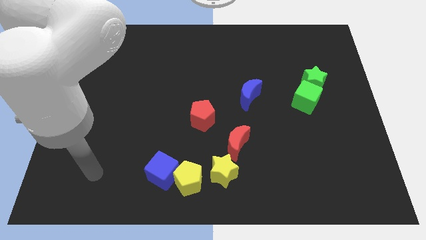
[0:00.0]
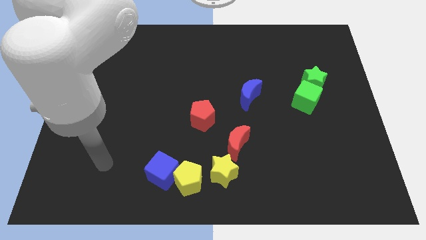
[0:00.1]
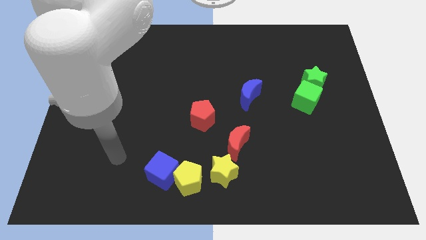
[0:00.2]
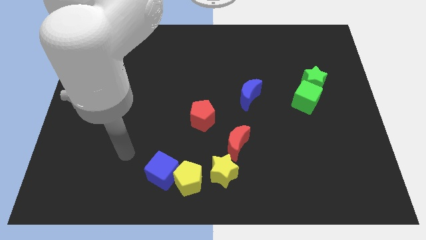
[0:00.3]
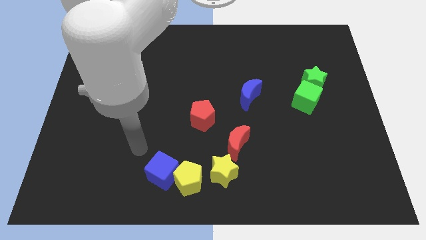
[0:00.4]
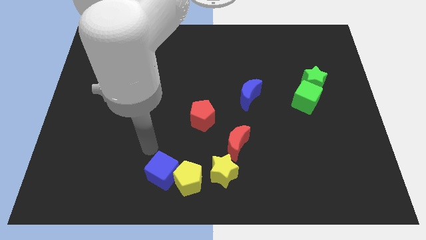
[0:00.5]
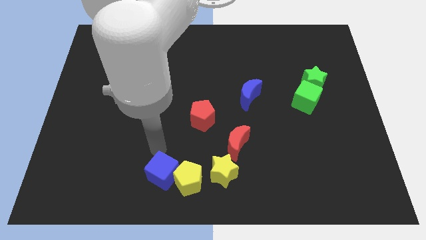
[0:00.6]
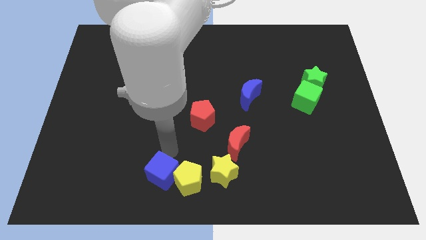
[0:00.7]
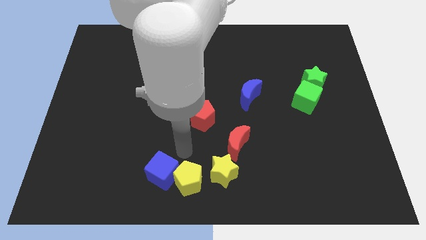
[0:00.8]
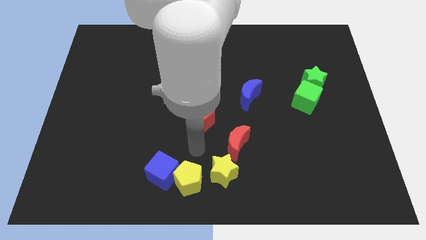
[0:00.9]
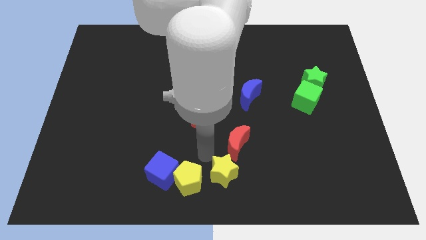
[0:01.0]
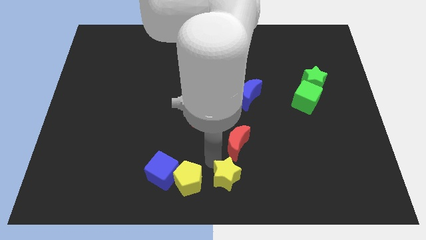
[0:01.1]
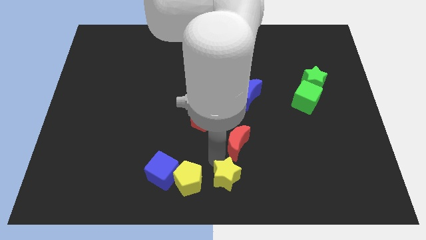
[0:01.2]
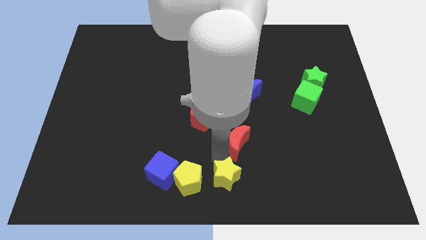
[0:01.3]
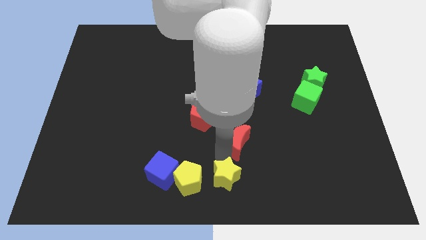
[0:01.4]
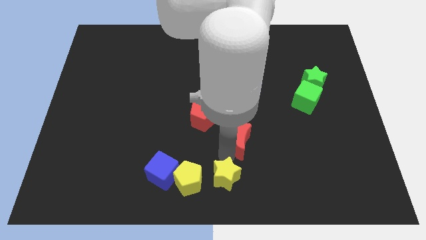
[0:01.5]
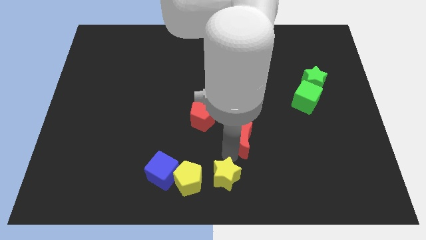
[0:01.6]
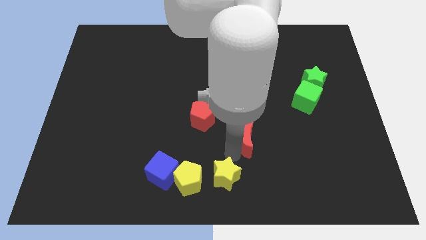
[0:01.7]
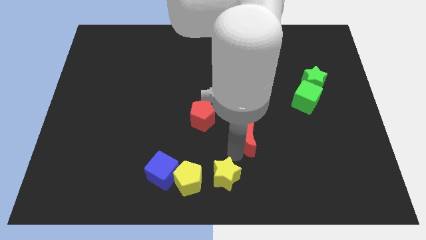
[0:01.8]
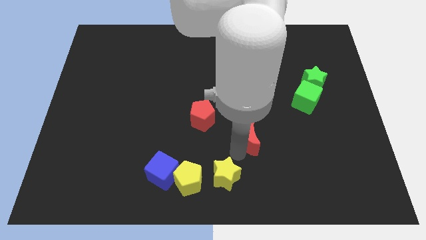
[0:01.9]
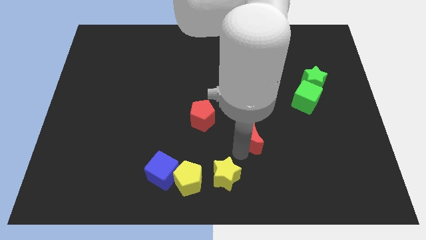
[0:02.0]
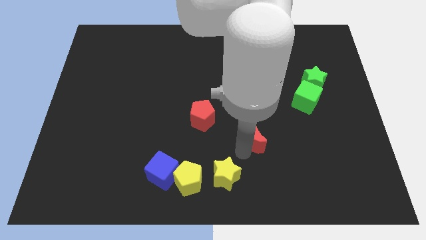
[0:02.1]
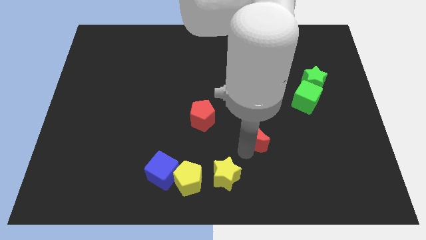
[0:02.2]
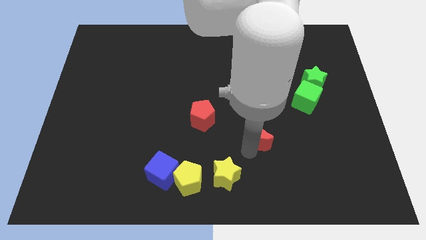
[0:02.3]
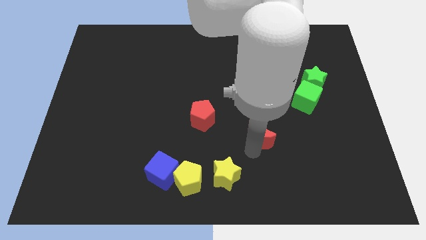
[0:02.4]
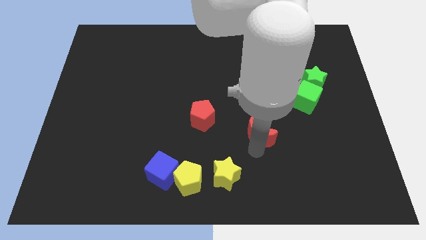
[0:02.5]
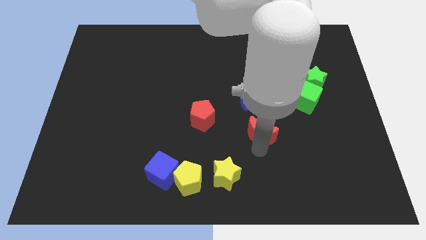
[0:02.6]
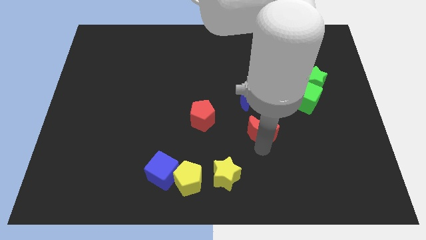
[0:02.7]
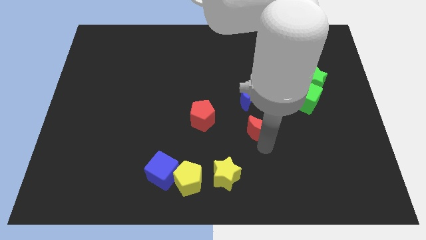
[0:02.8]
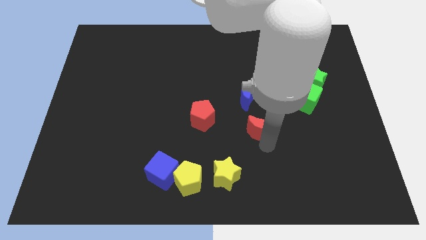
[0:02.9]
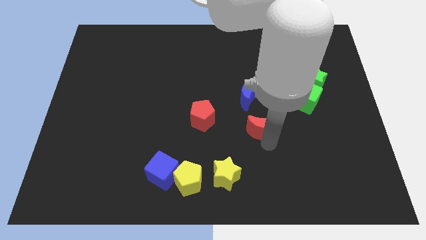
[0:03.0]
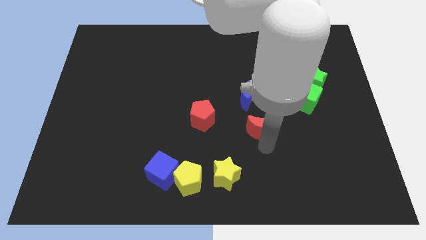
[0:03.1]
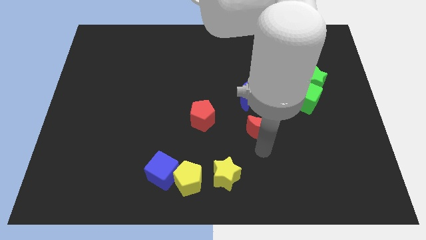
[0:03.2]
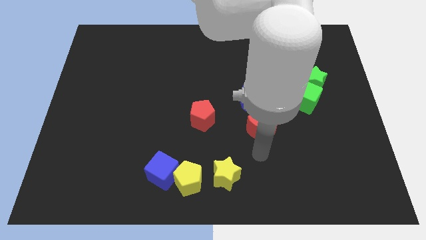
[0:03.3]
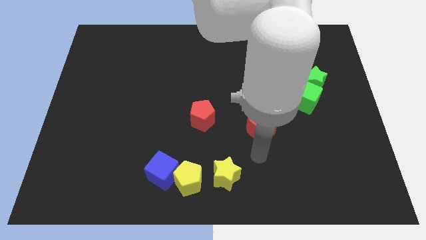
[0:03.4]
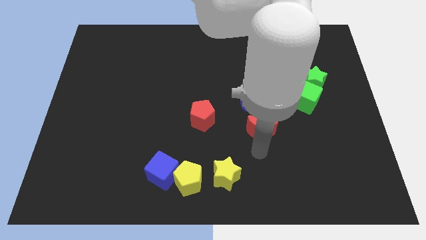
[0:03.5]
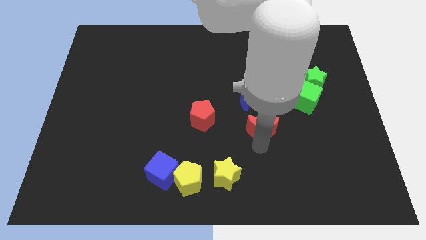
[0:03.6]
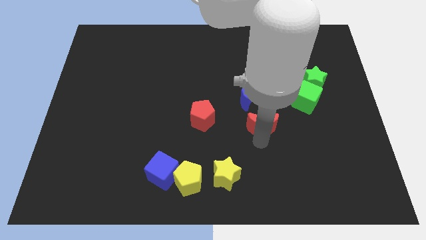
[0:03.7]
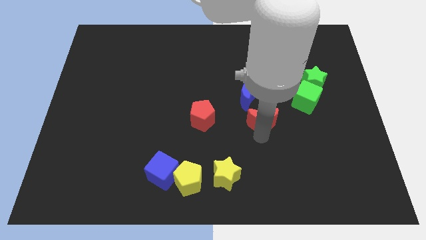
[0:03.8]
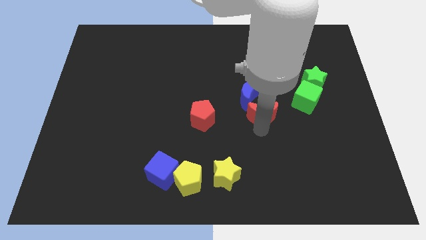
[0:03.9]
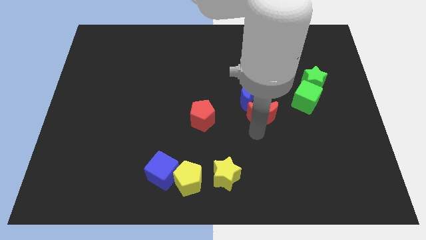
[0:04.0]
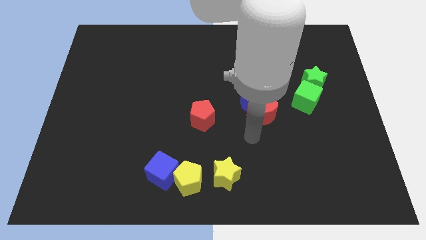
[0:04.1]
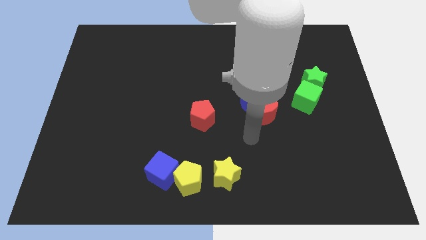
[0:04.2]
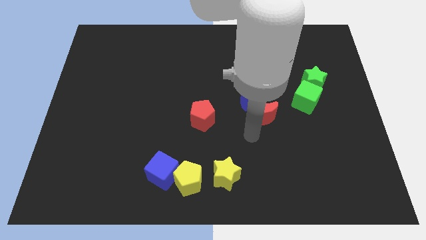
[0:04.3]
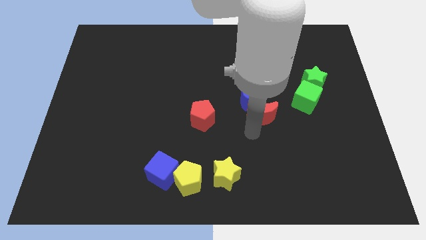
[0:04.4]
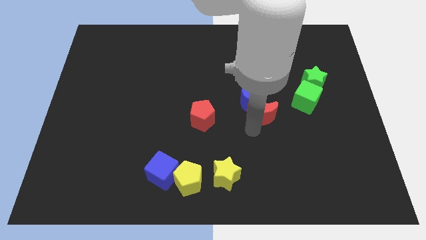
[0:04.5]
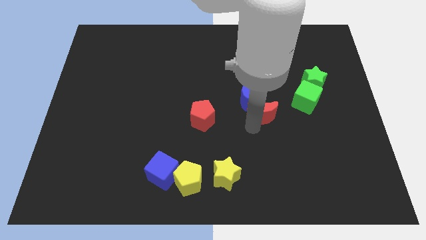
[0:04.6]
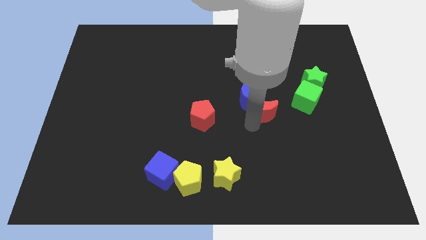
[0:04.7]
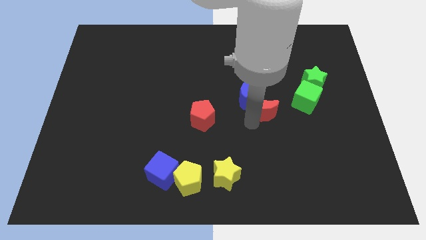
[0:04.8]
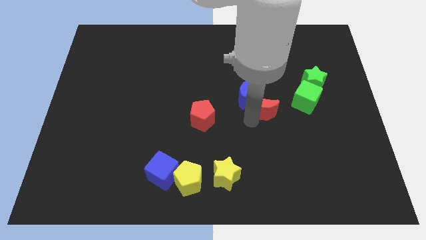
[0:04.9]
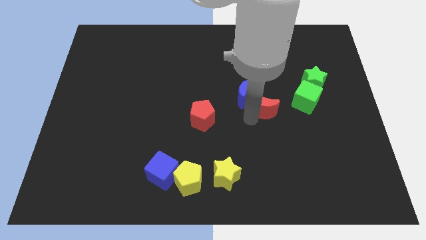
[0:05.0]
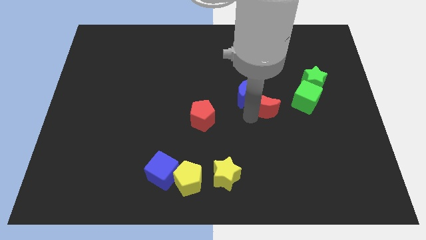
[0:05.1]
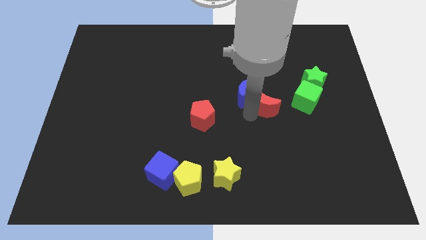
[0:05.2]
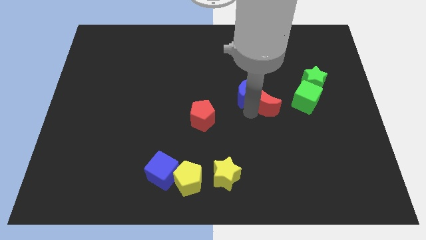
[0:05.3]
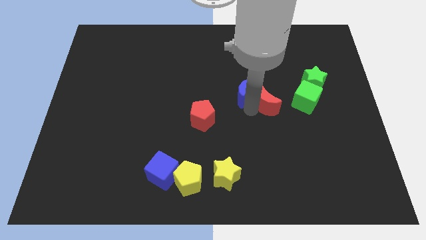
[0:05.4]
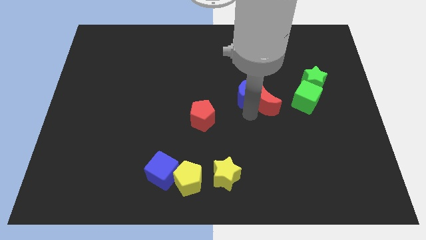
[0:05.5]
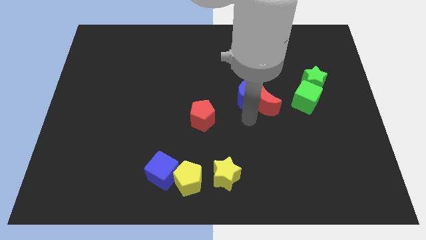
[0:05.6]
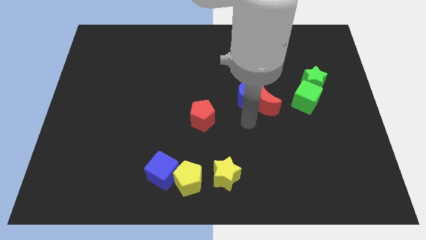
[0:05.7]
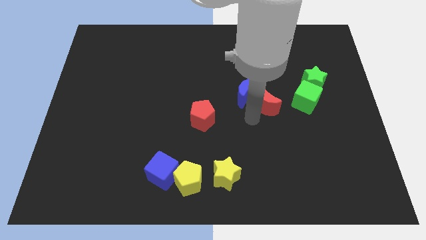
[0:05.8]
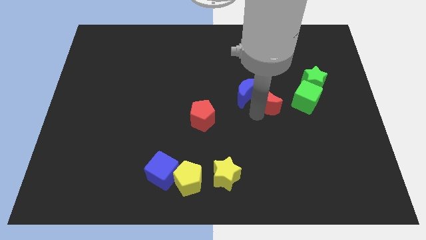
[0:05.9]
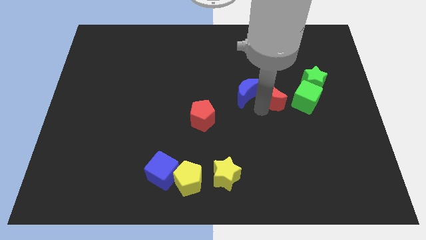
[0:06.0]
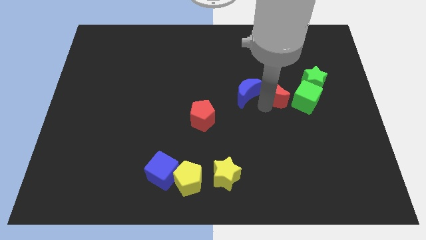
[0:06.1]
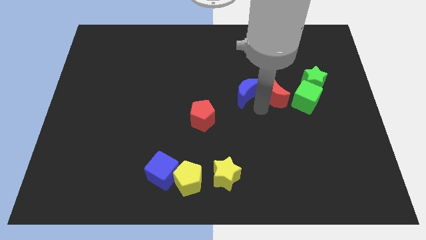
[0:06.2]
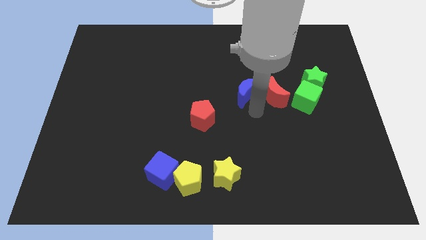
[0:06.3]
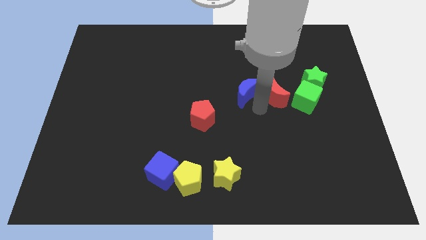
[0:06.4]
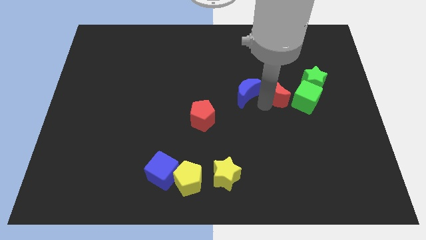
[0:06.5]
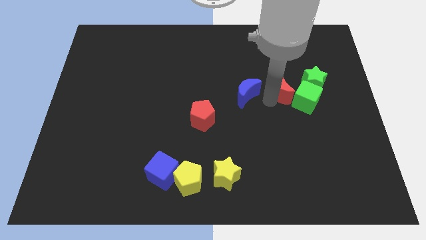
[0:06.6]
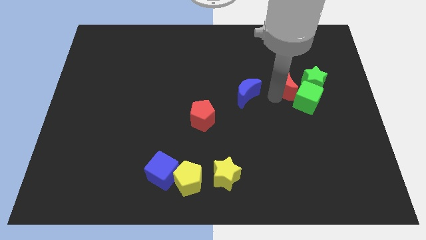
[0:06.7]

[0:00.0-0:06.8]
slide the red moon diagonally up and right

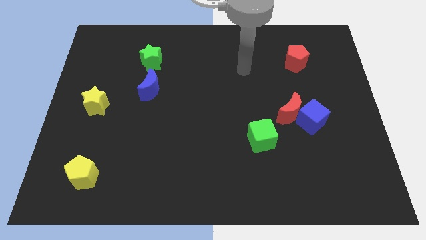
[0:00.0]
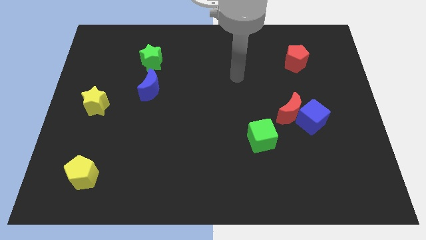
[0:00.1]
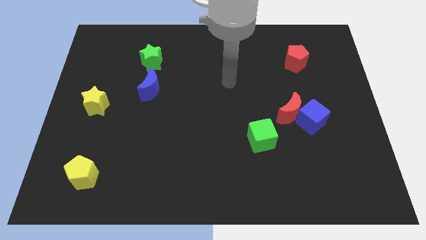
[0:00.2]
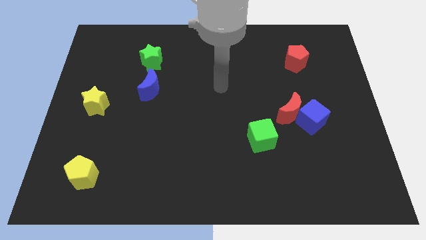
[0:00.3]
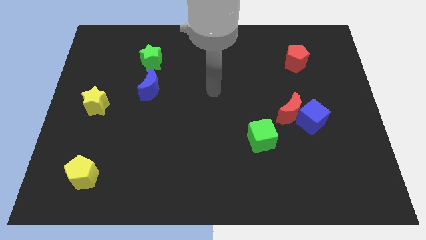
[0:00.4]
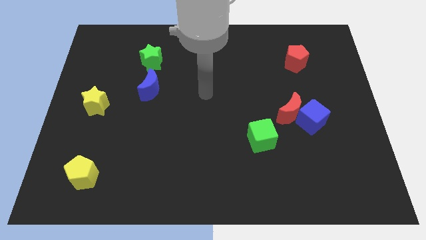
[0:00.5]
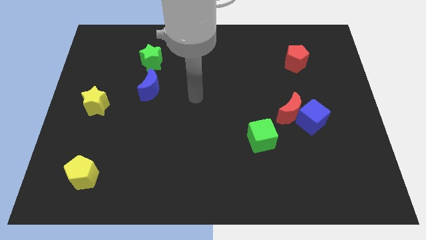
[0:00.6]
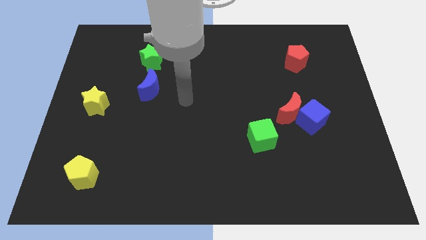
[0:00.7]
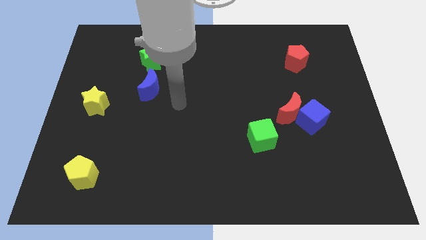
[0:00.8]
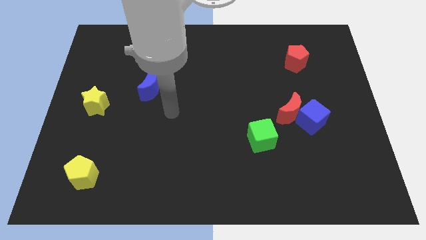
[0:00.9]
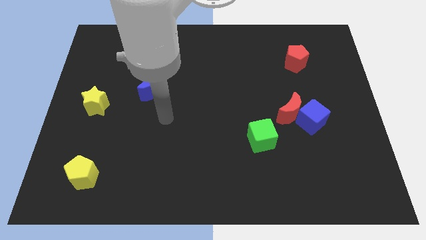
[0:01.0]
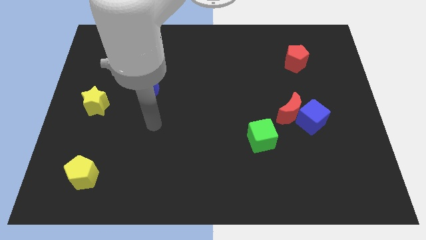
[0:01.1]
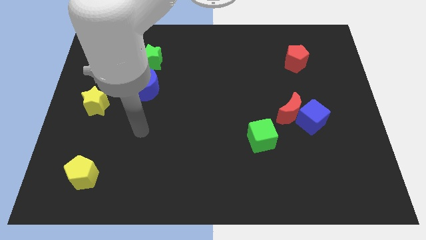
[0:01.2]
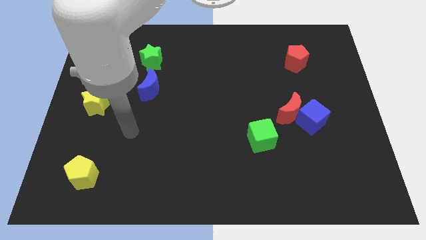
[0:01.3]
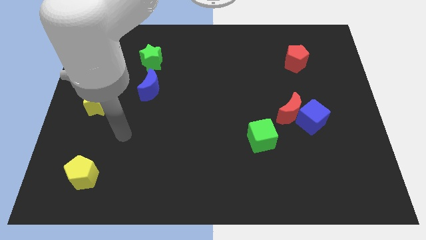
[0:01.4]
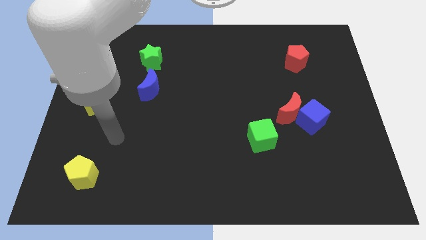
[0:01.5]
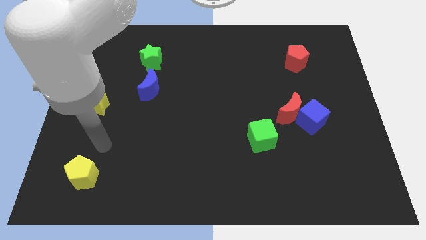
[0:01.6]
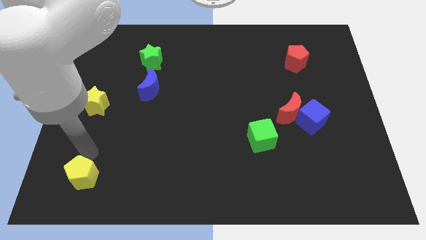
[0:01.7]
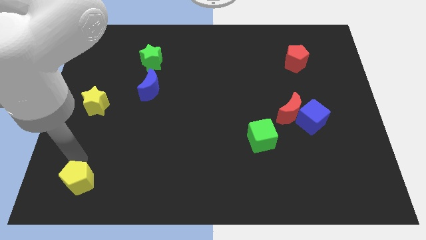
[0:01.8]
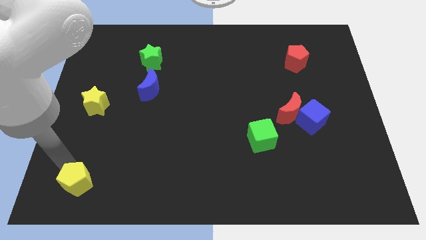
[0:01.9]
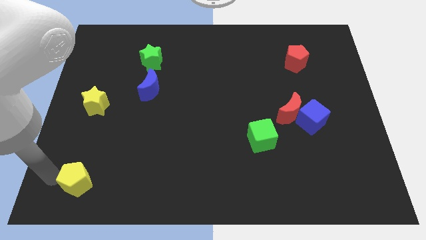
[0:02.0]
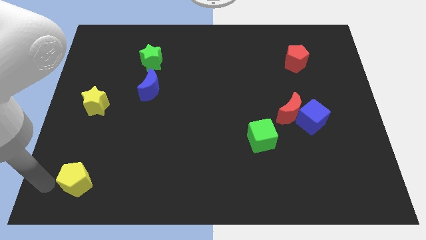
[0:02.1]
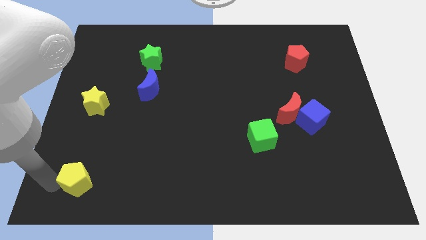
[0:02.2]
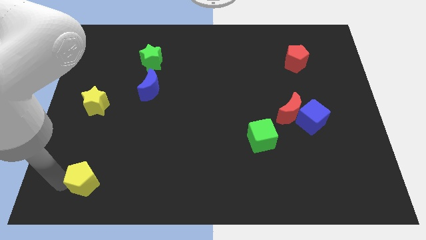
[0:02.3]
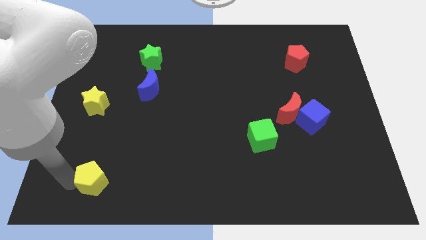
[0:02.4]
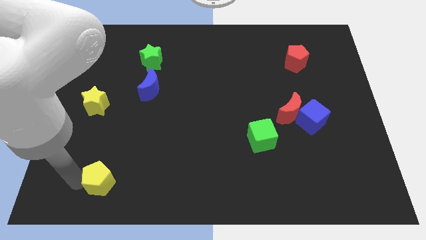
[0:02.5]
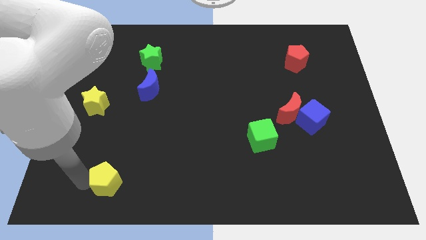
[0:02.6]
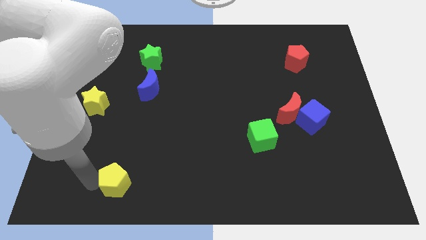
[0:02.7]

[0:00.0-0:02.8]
push the yellow pentagon a little to the right
